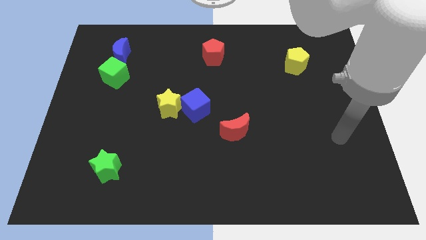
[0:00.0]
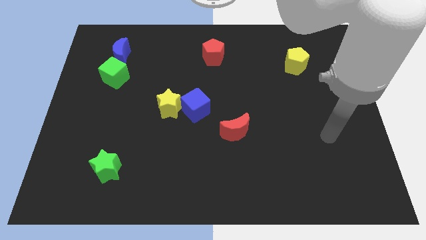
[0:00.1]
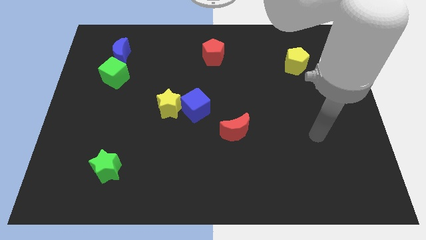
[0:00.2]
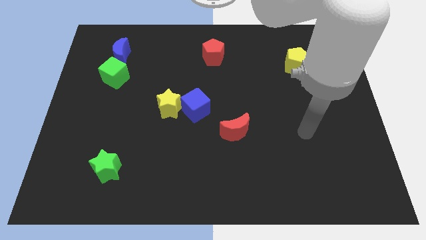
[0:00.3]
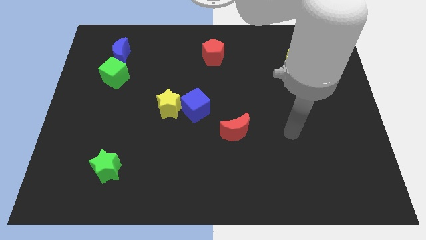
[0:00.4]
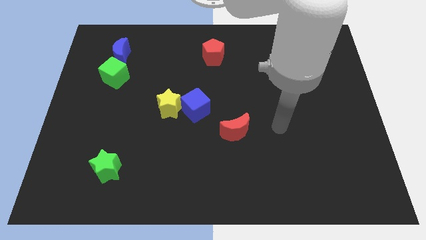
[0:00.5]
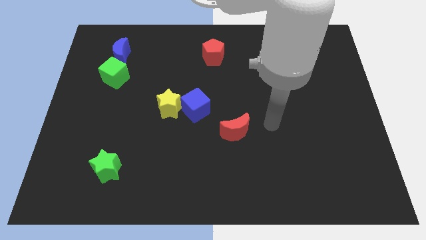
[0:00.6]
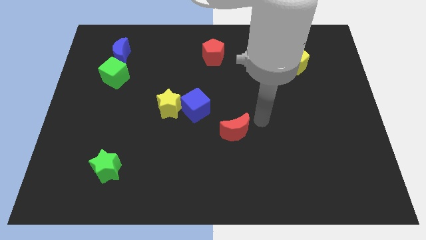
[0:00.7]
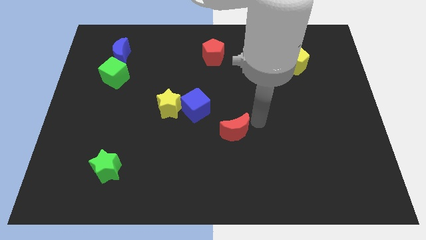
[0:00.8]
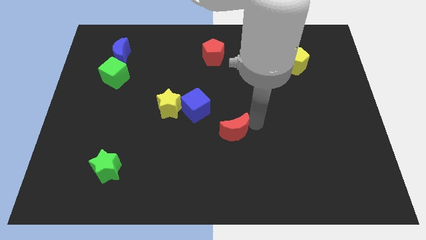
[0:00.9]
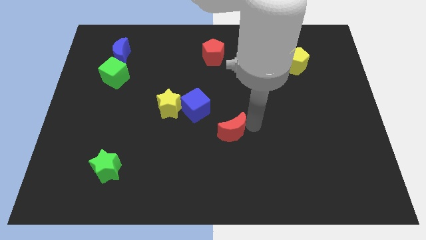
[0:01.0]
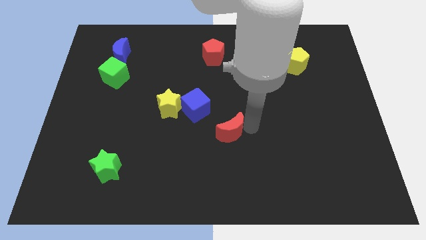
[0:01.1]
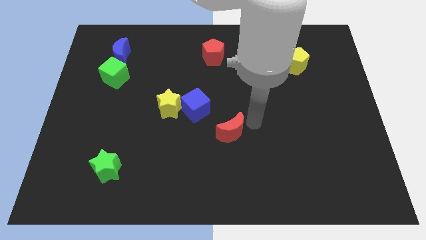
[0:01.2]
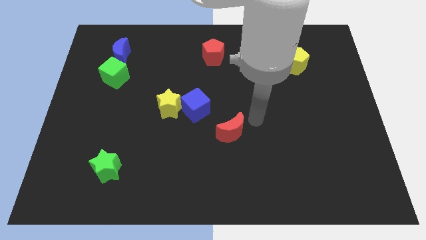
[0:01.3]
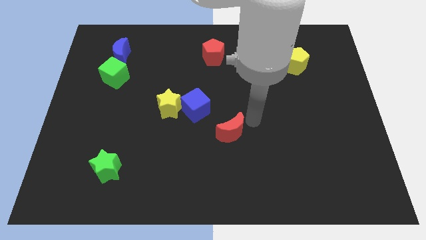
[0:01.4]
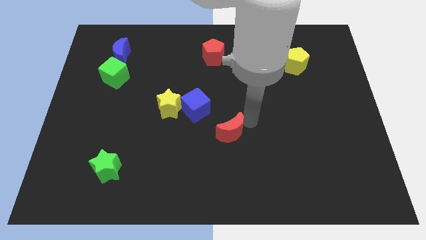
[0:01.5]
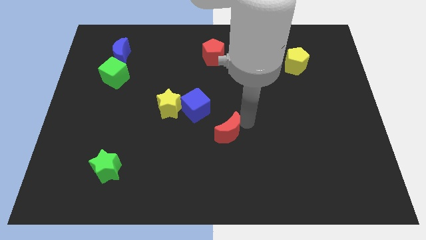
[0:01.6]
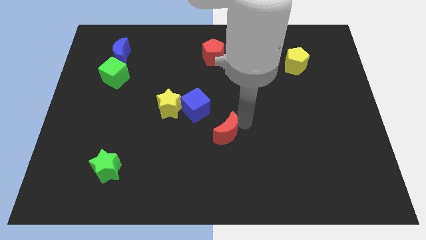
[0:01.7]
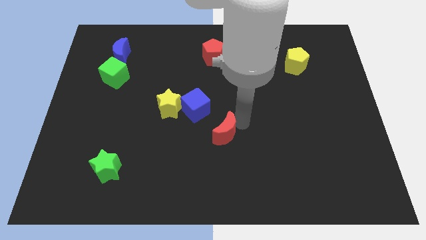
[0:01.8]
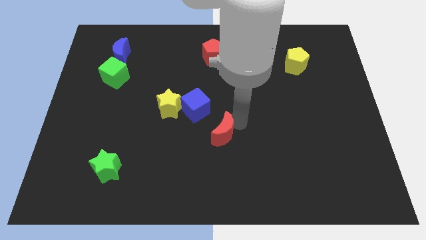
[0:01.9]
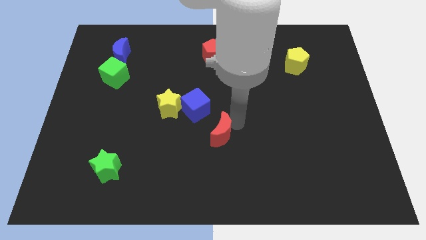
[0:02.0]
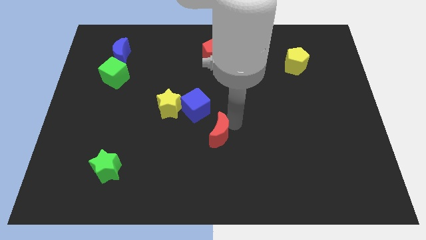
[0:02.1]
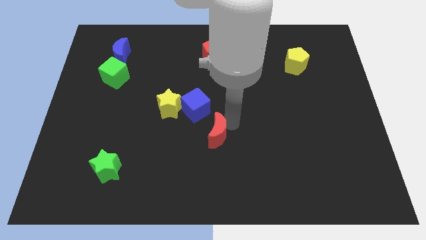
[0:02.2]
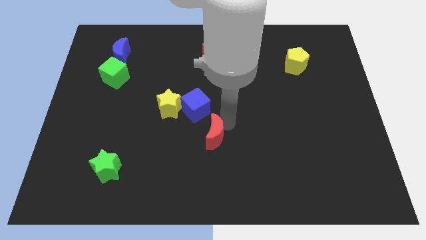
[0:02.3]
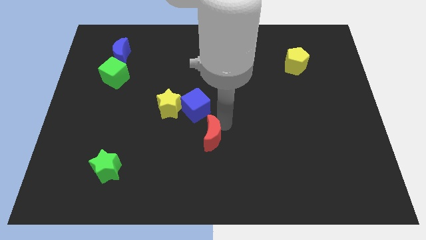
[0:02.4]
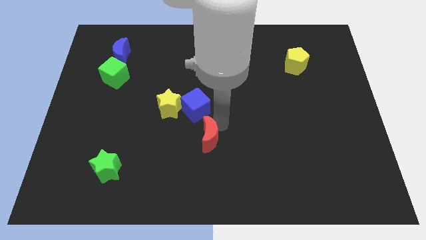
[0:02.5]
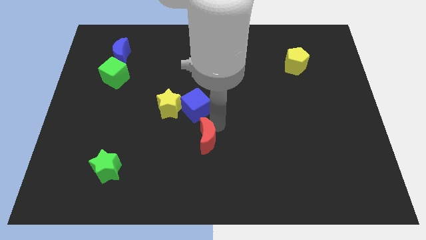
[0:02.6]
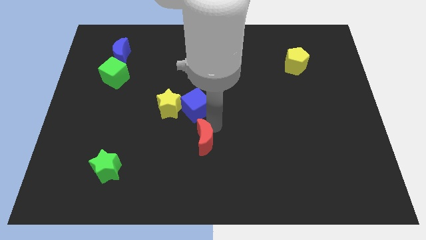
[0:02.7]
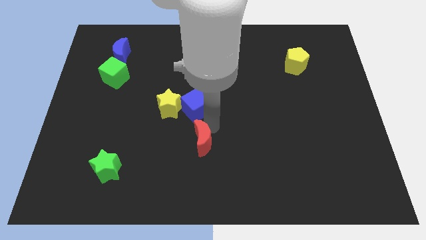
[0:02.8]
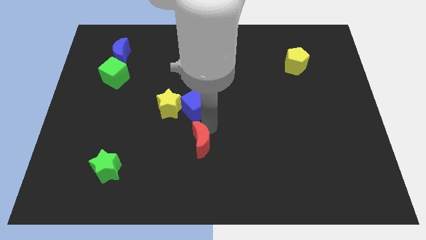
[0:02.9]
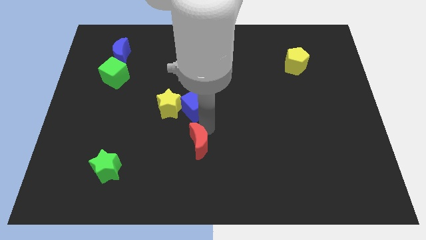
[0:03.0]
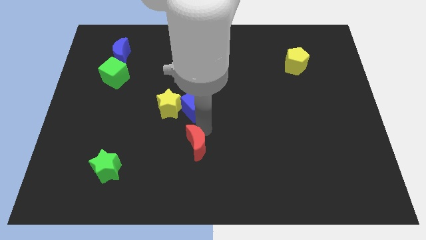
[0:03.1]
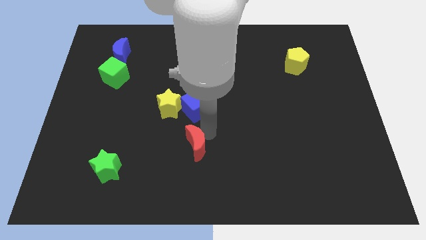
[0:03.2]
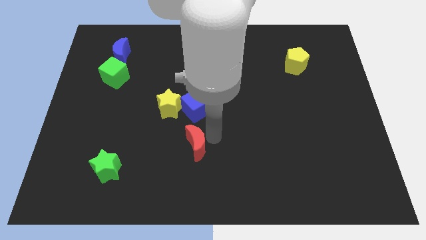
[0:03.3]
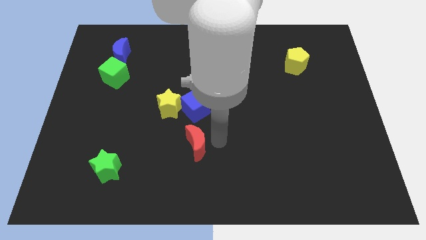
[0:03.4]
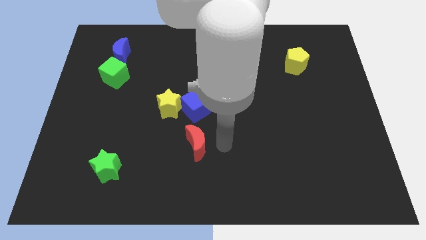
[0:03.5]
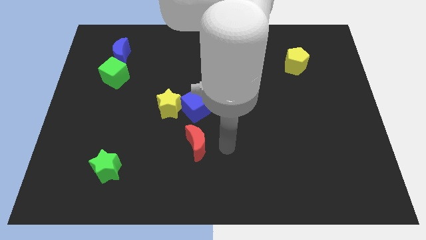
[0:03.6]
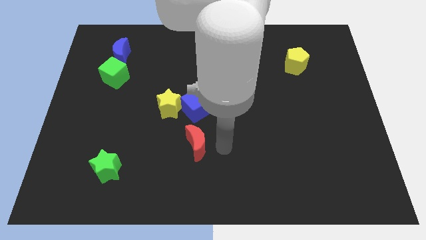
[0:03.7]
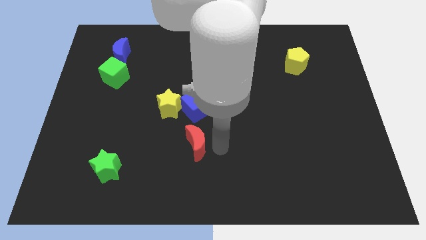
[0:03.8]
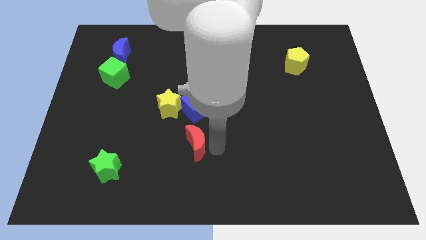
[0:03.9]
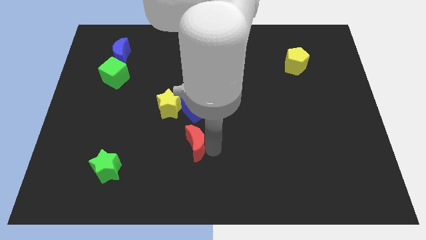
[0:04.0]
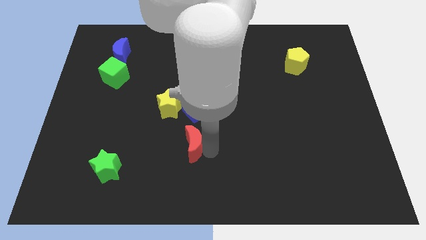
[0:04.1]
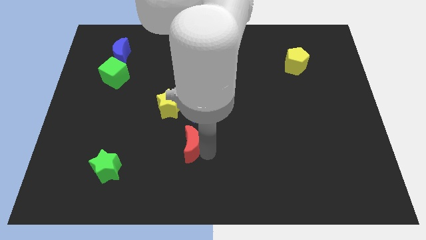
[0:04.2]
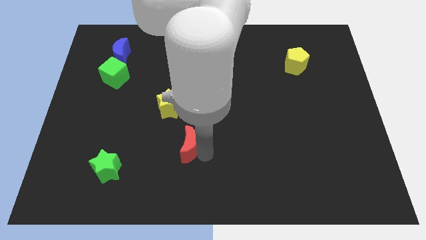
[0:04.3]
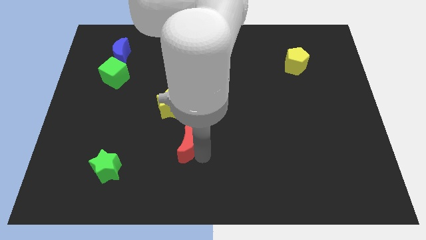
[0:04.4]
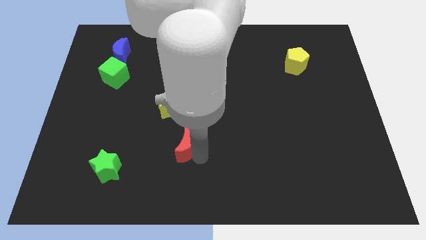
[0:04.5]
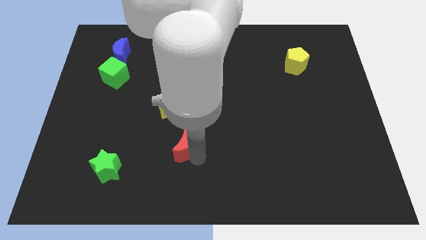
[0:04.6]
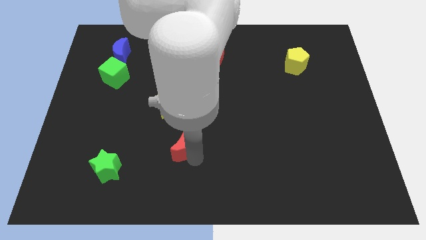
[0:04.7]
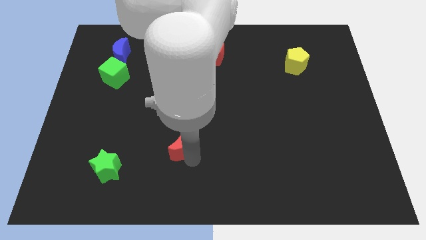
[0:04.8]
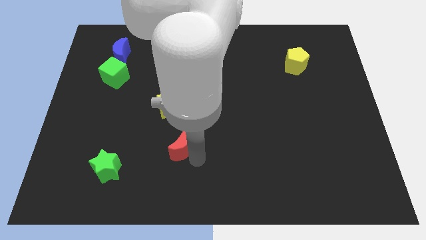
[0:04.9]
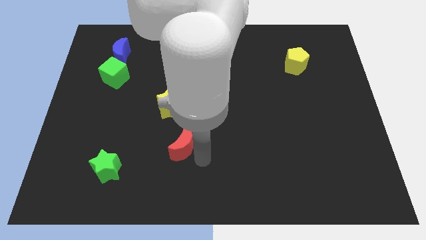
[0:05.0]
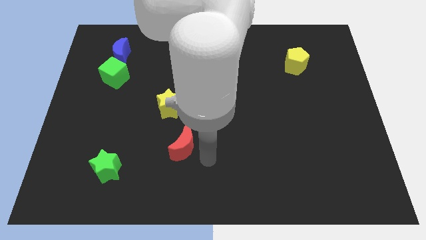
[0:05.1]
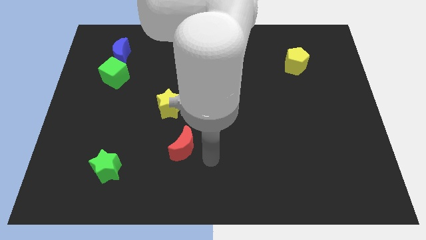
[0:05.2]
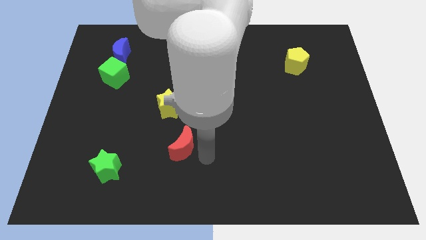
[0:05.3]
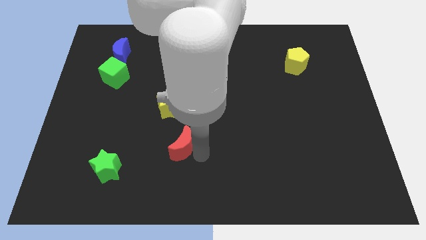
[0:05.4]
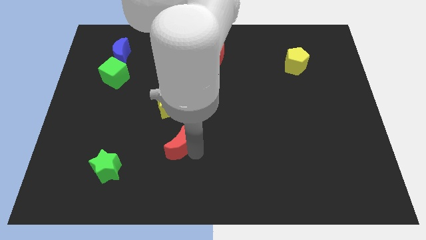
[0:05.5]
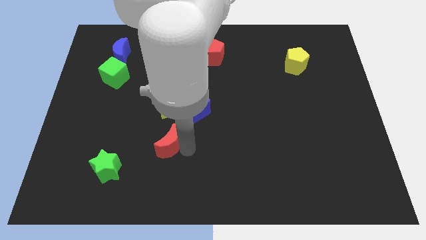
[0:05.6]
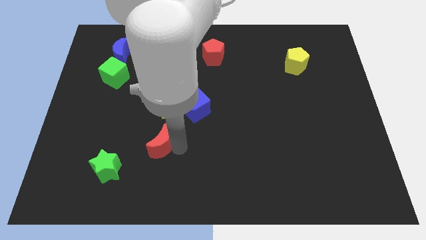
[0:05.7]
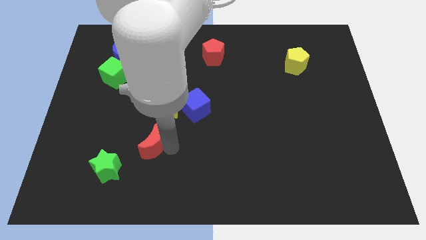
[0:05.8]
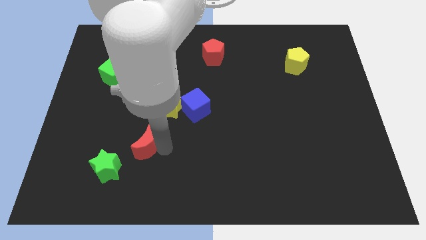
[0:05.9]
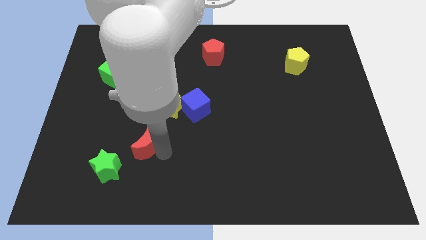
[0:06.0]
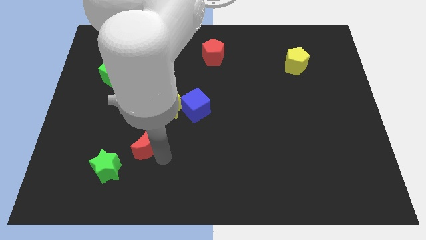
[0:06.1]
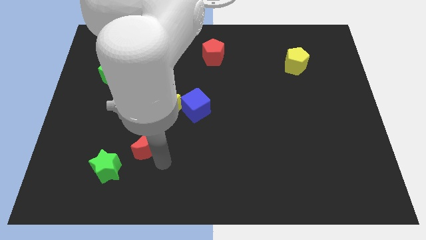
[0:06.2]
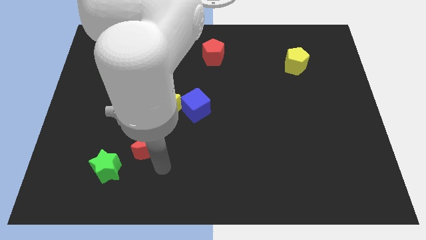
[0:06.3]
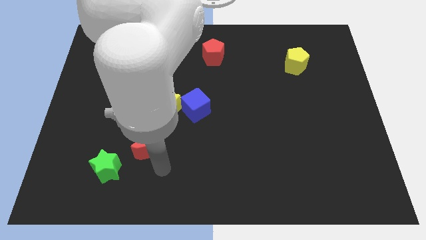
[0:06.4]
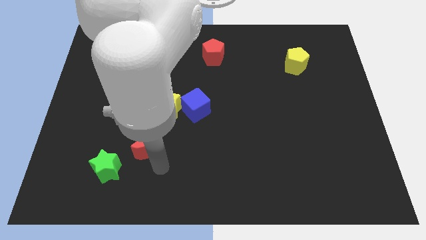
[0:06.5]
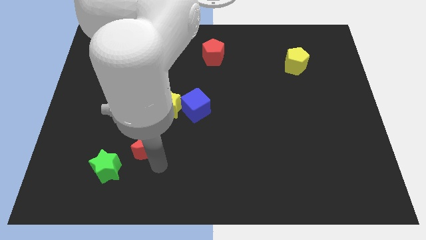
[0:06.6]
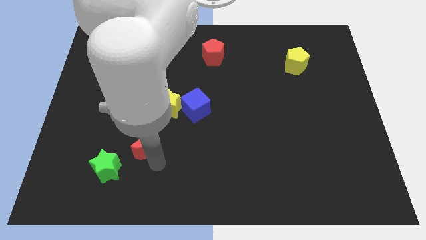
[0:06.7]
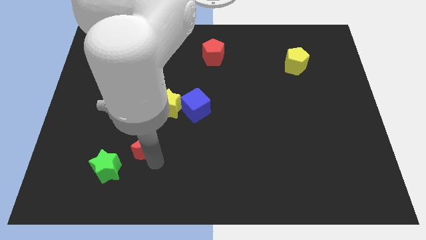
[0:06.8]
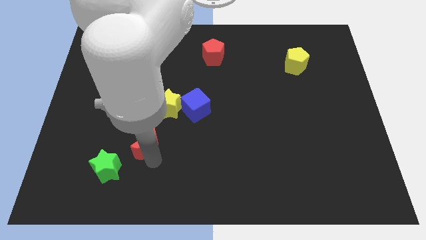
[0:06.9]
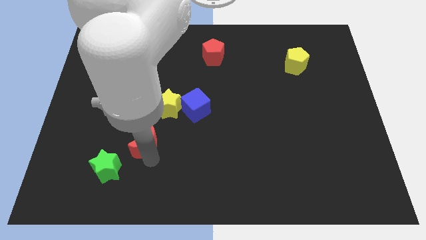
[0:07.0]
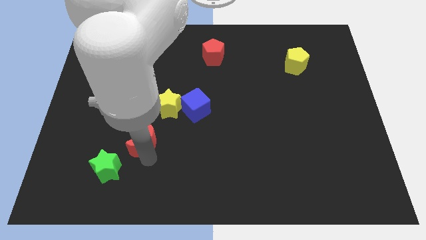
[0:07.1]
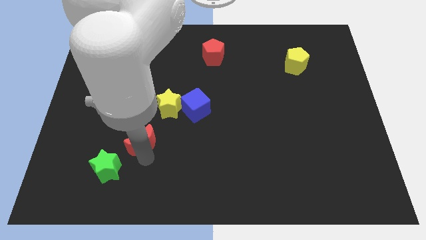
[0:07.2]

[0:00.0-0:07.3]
slide the red moon left

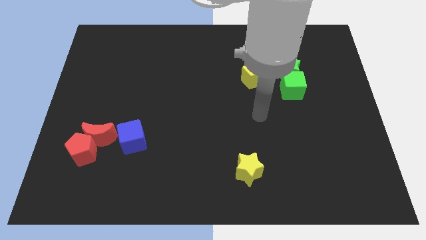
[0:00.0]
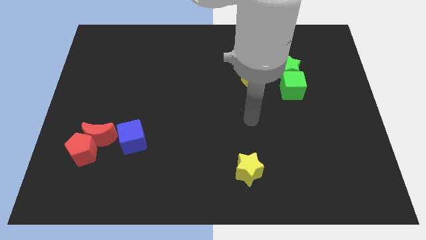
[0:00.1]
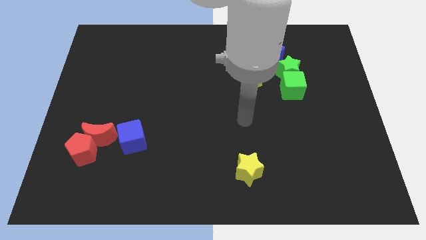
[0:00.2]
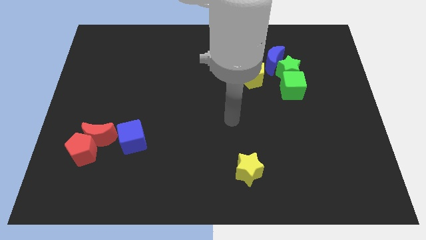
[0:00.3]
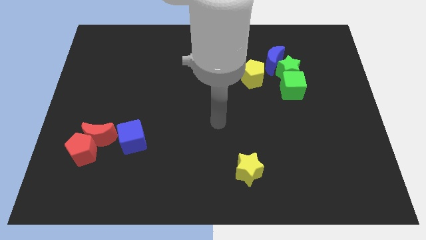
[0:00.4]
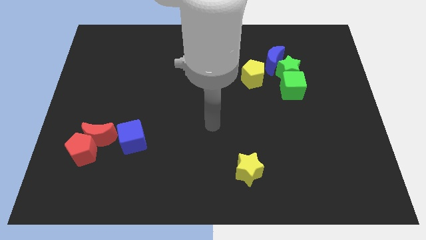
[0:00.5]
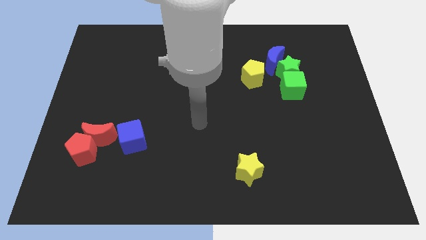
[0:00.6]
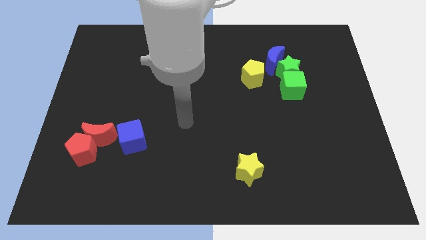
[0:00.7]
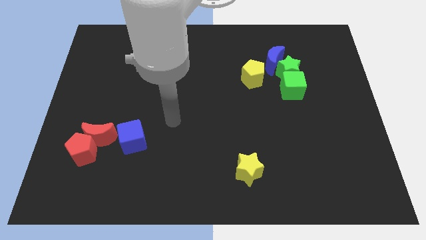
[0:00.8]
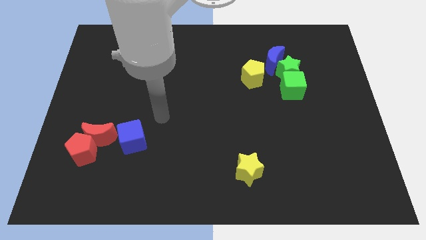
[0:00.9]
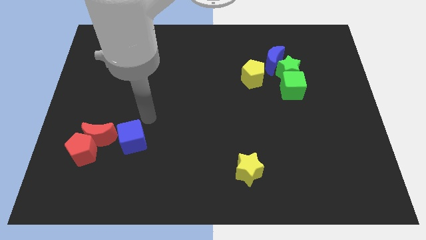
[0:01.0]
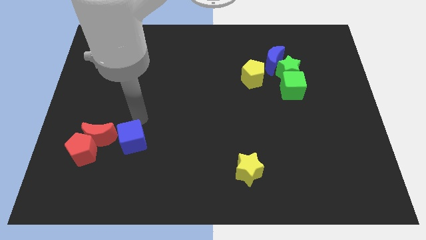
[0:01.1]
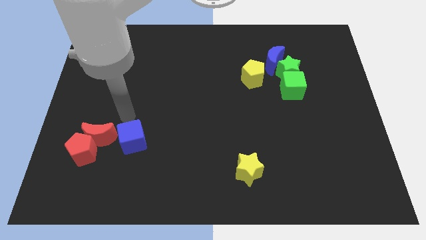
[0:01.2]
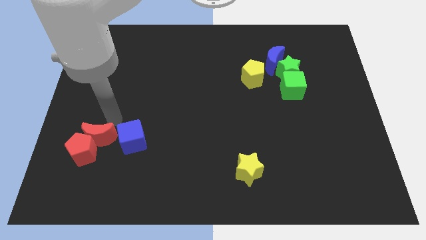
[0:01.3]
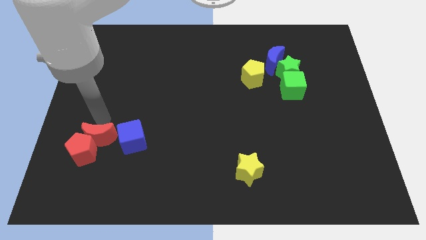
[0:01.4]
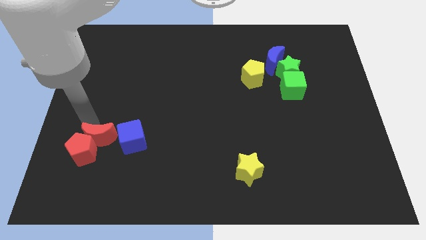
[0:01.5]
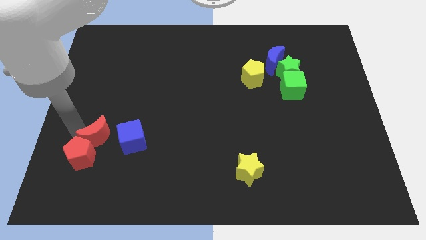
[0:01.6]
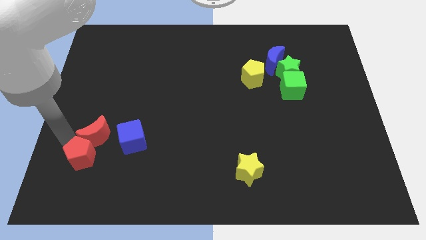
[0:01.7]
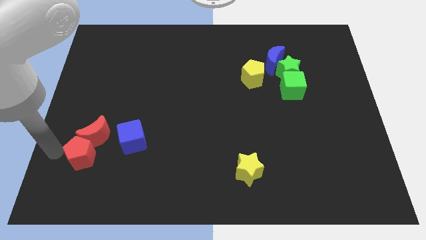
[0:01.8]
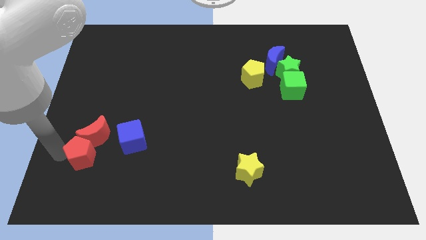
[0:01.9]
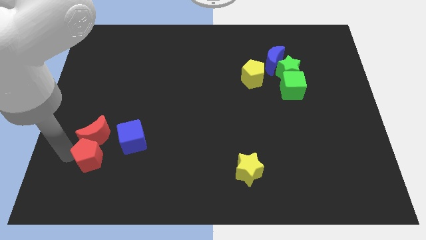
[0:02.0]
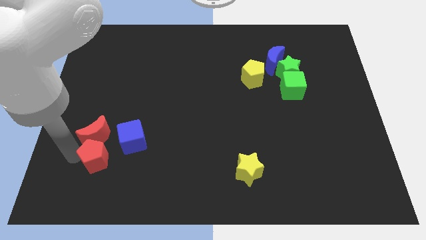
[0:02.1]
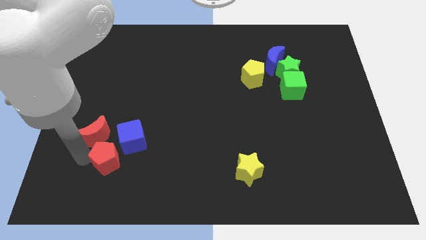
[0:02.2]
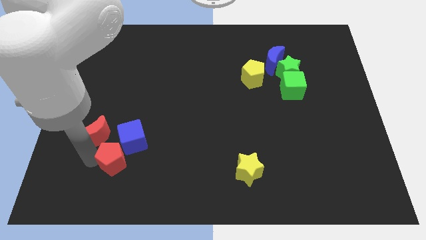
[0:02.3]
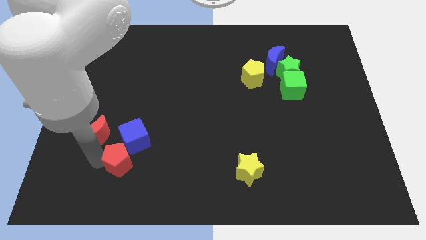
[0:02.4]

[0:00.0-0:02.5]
move the red pentagon slightly to the right
